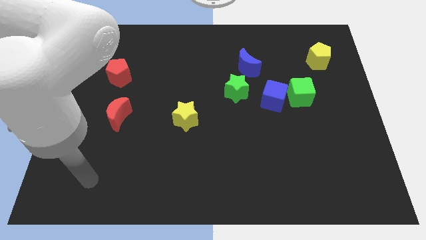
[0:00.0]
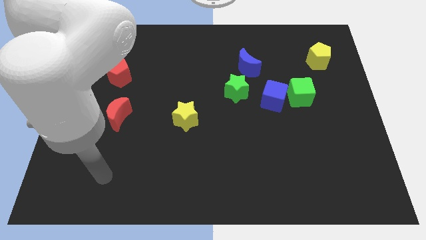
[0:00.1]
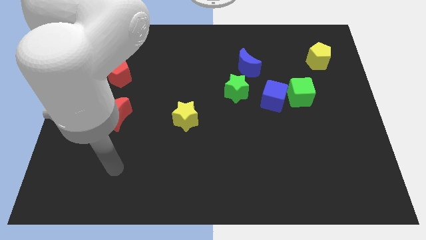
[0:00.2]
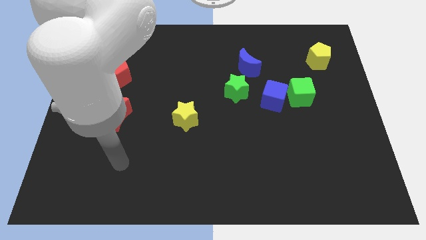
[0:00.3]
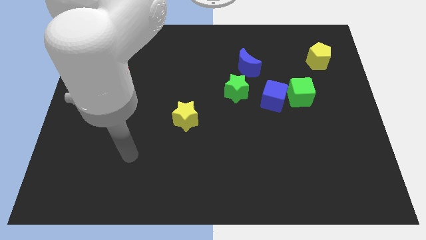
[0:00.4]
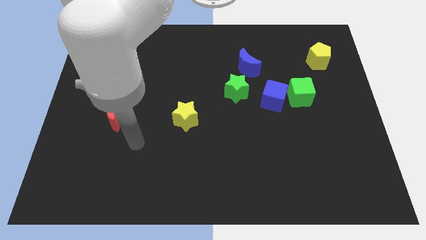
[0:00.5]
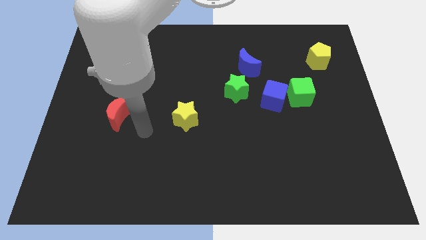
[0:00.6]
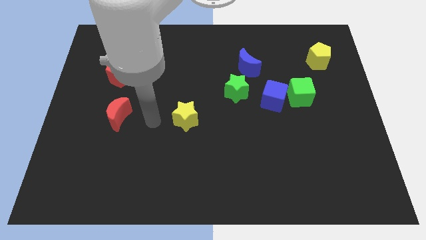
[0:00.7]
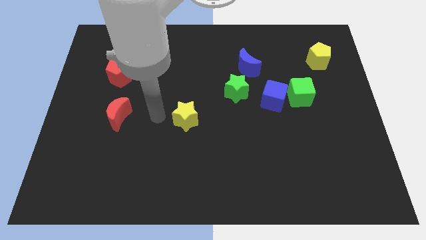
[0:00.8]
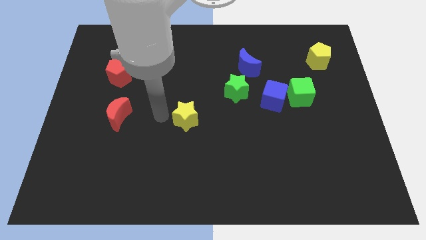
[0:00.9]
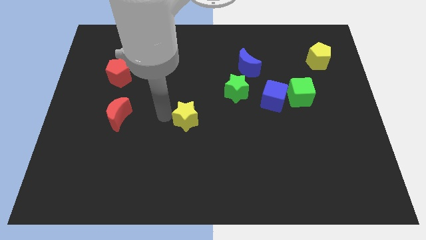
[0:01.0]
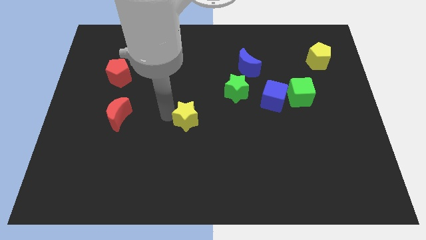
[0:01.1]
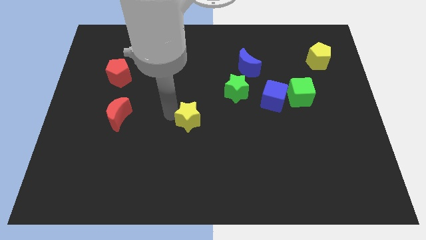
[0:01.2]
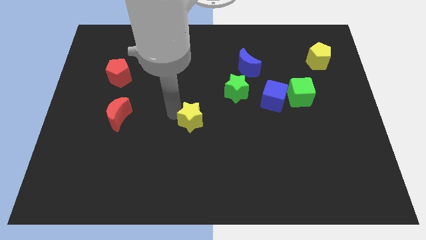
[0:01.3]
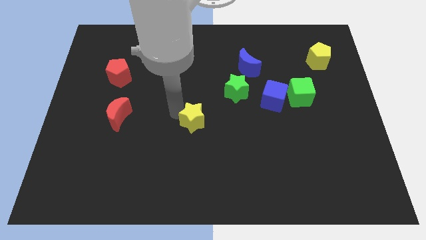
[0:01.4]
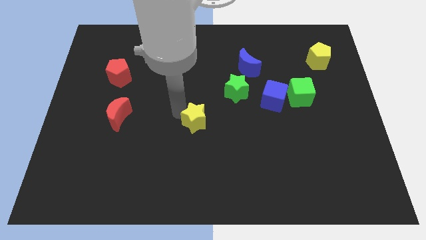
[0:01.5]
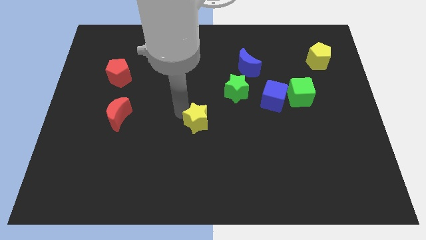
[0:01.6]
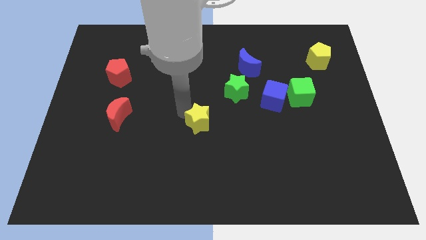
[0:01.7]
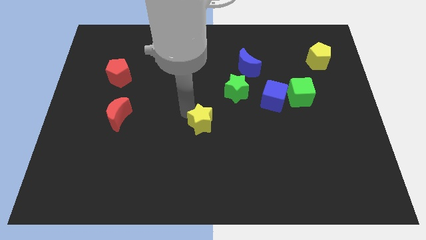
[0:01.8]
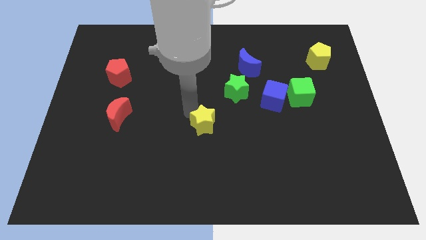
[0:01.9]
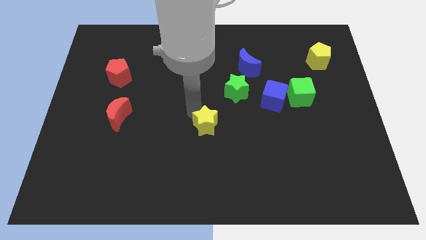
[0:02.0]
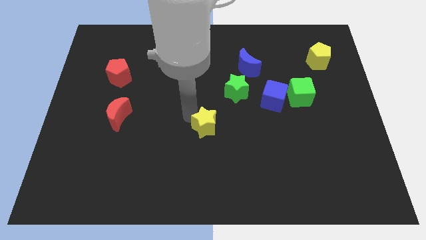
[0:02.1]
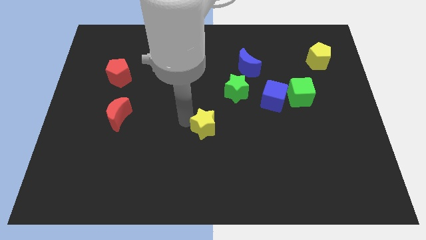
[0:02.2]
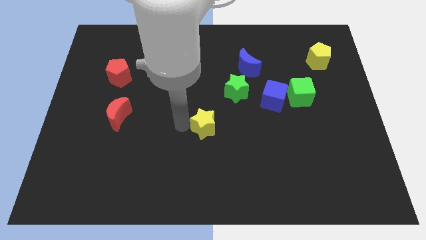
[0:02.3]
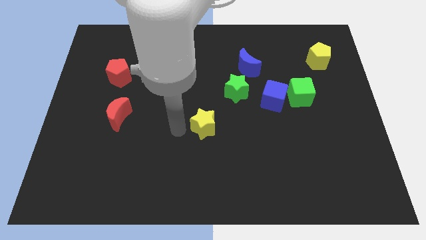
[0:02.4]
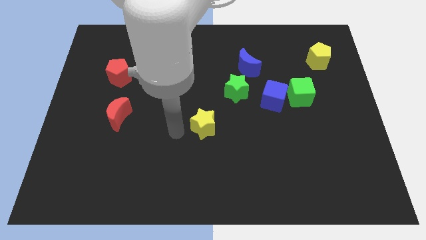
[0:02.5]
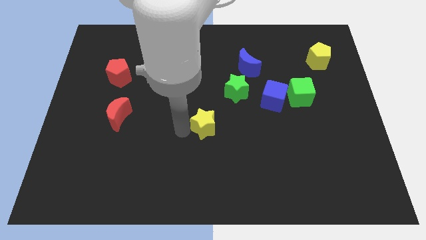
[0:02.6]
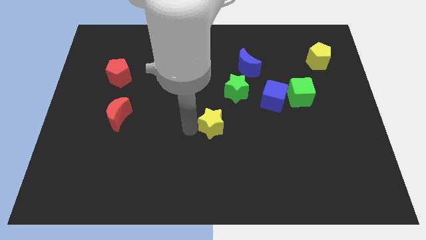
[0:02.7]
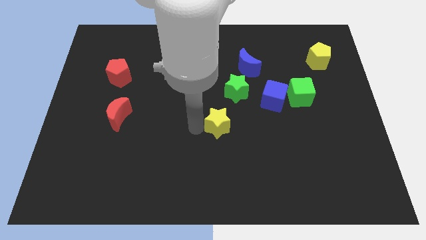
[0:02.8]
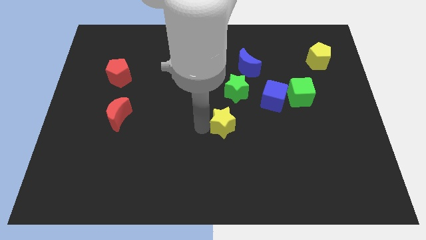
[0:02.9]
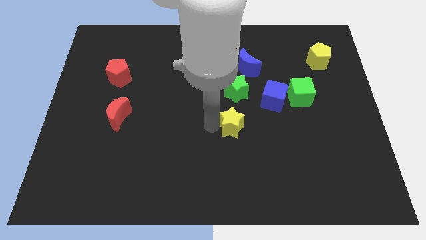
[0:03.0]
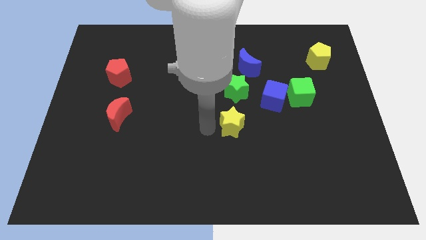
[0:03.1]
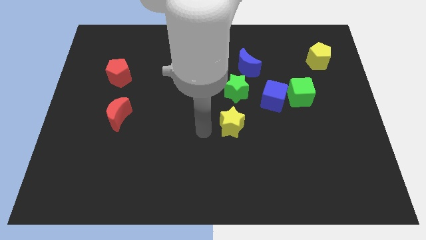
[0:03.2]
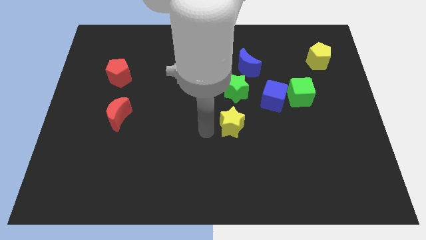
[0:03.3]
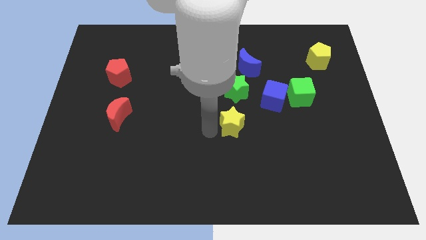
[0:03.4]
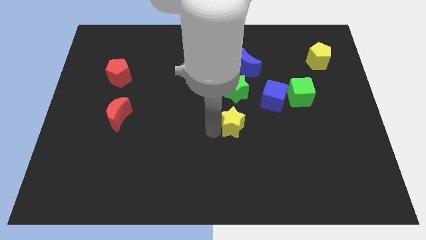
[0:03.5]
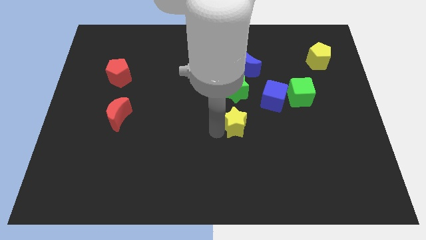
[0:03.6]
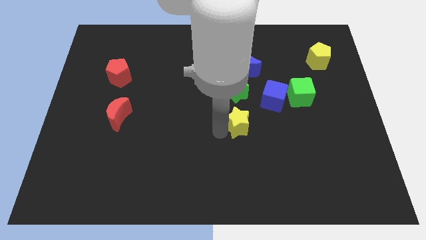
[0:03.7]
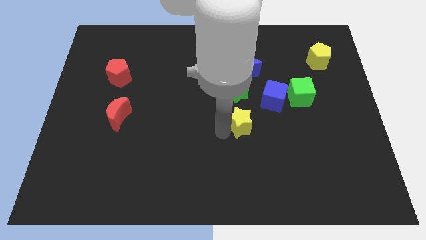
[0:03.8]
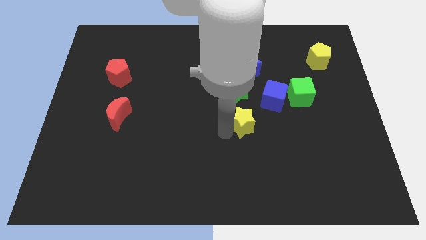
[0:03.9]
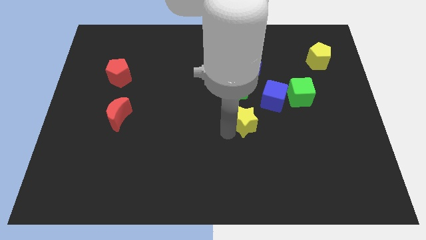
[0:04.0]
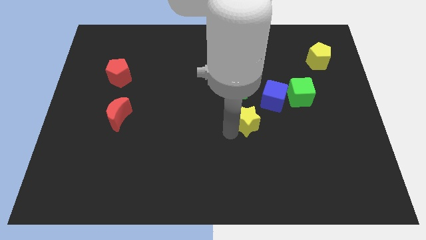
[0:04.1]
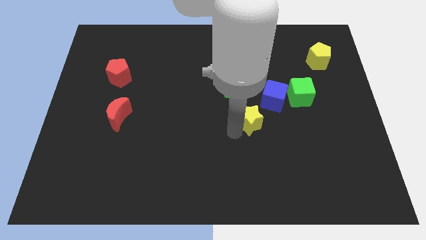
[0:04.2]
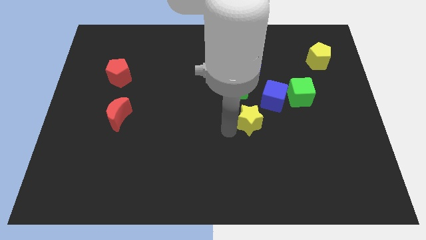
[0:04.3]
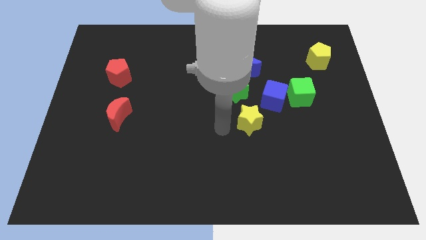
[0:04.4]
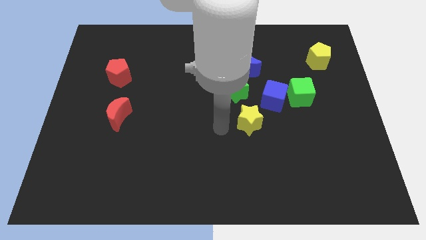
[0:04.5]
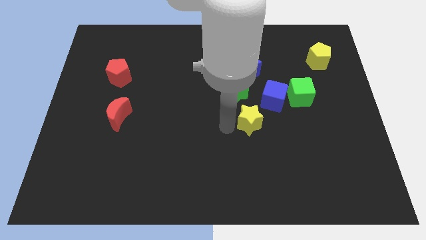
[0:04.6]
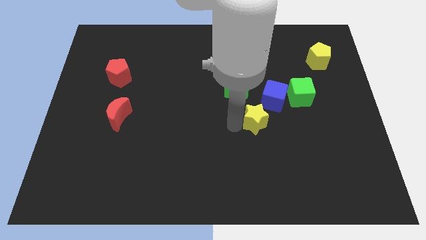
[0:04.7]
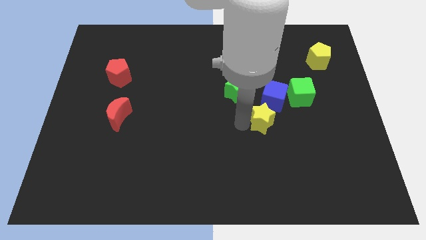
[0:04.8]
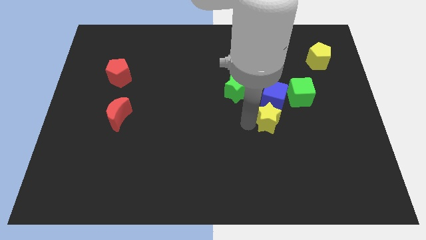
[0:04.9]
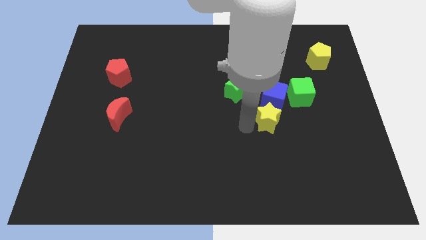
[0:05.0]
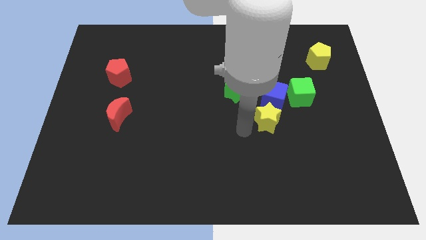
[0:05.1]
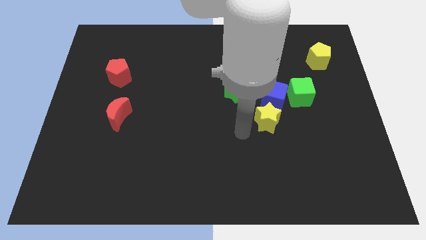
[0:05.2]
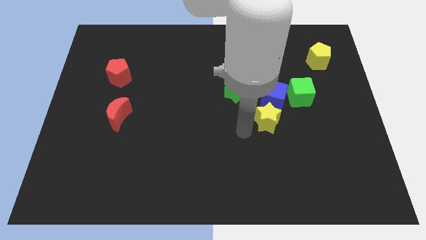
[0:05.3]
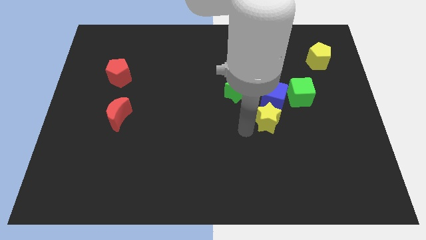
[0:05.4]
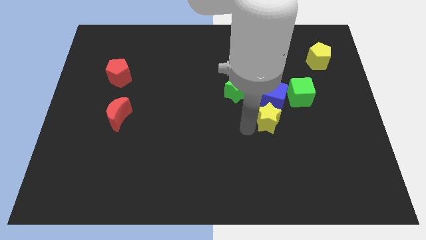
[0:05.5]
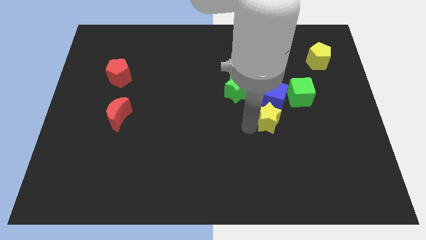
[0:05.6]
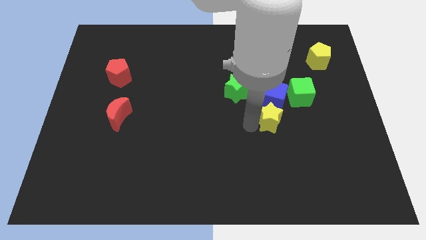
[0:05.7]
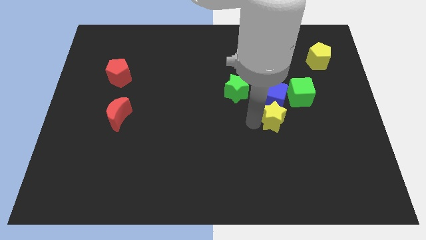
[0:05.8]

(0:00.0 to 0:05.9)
push the yellow star to the right

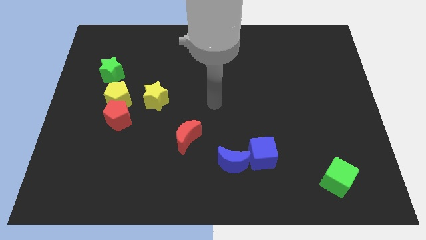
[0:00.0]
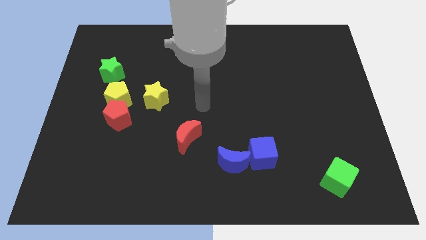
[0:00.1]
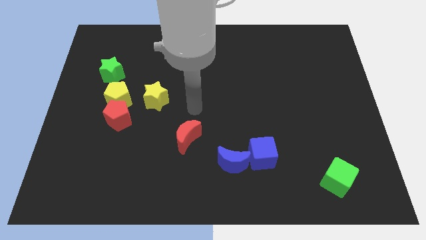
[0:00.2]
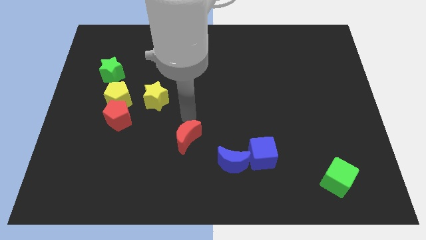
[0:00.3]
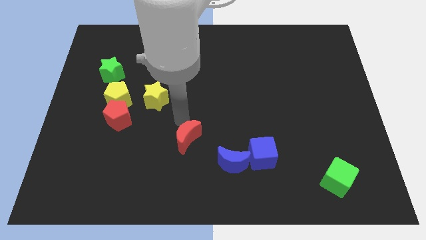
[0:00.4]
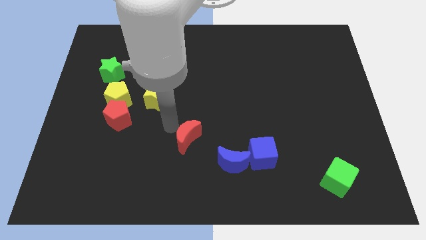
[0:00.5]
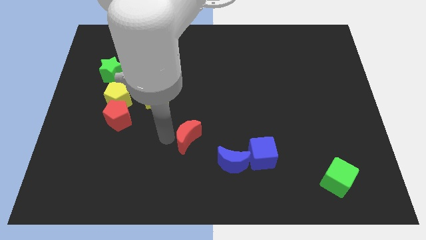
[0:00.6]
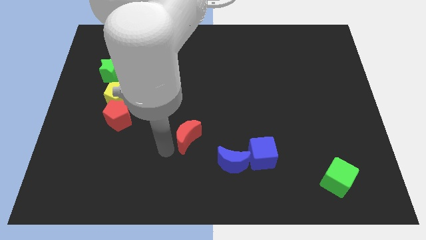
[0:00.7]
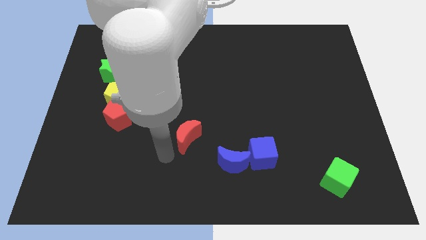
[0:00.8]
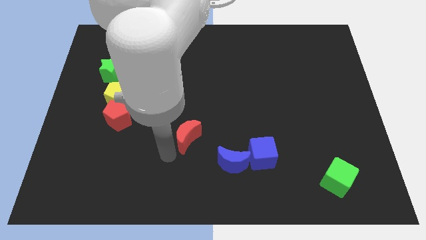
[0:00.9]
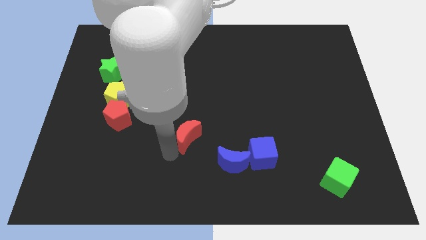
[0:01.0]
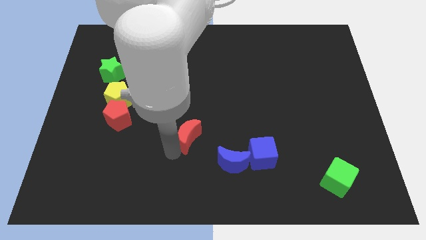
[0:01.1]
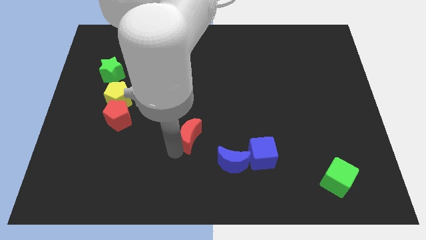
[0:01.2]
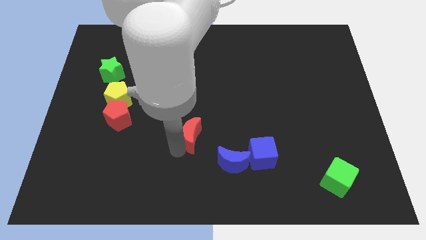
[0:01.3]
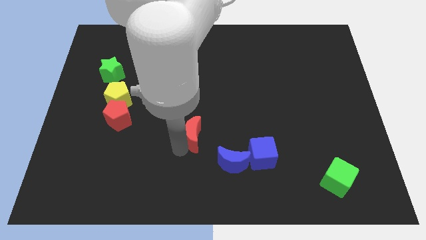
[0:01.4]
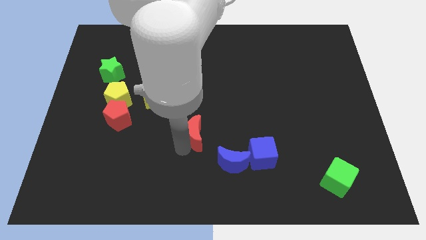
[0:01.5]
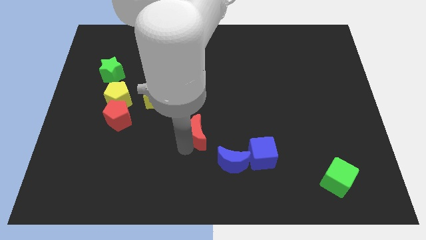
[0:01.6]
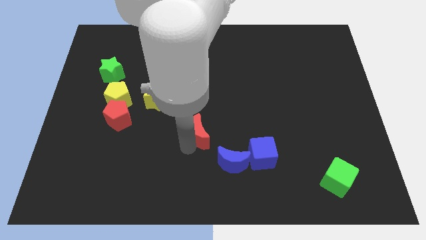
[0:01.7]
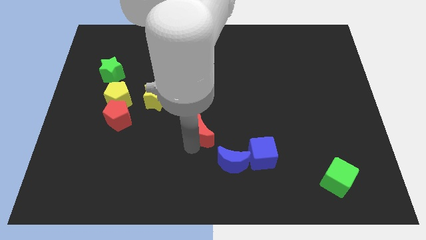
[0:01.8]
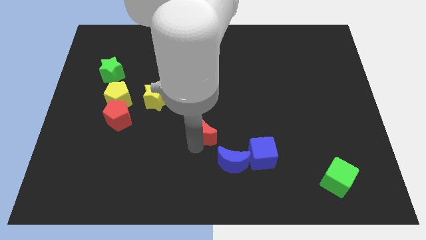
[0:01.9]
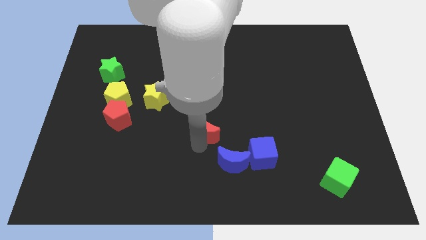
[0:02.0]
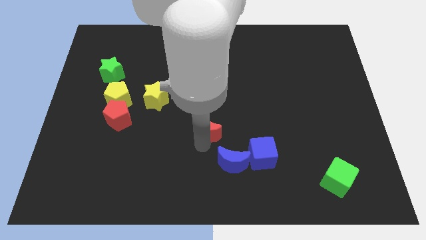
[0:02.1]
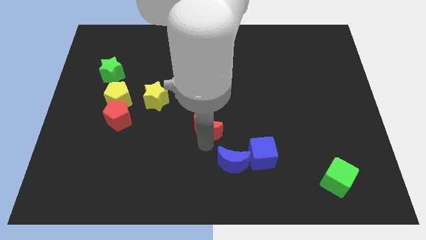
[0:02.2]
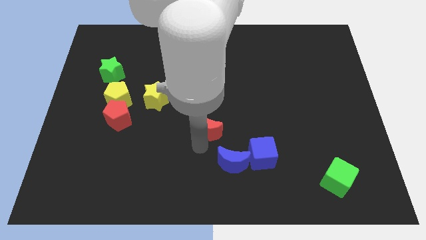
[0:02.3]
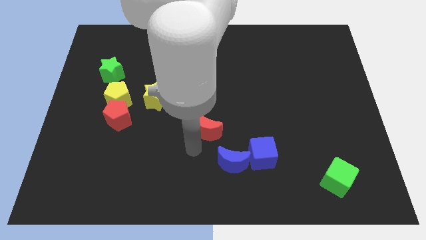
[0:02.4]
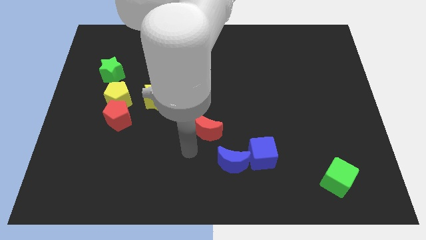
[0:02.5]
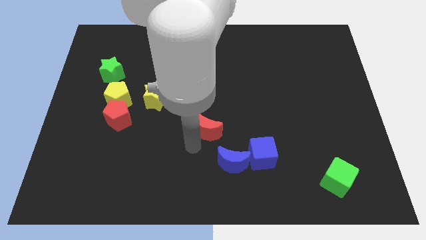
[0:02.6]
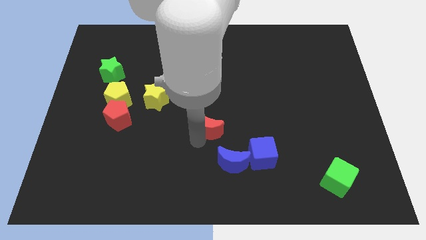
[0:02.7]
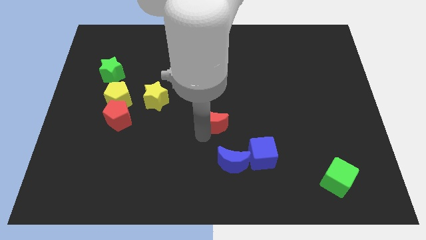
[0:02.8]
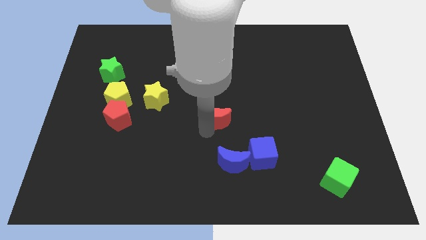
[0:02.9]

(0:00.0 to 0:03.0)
slightly slide the red moon diagonally up and right
